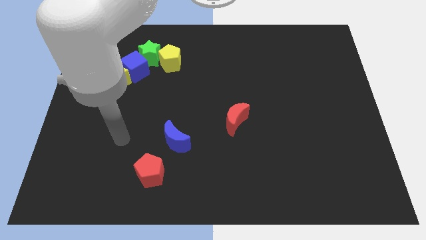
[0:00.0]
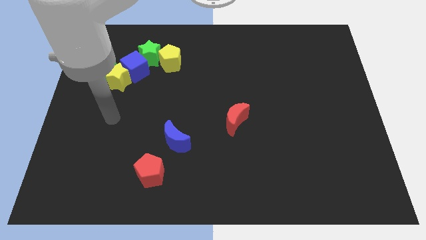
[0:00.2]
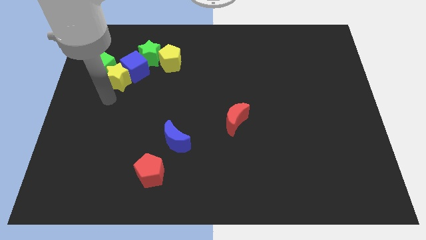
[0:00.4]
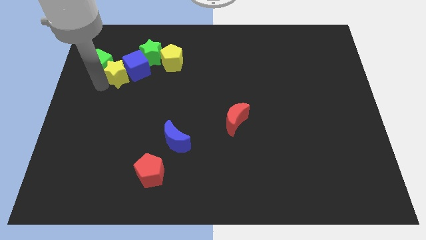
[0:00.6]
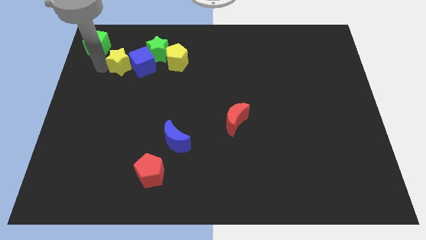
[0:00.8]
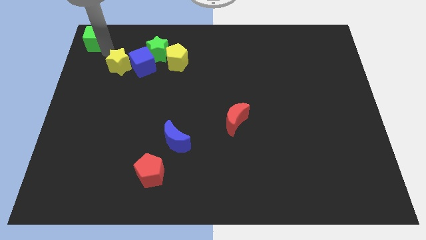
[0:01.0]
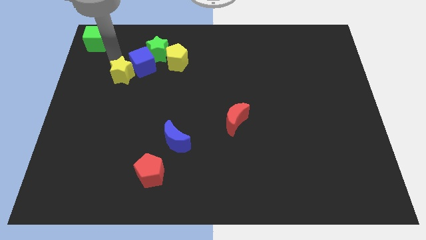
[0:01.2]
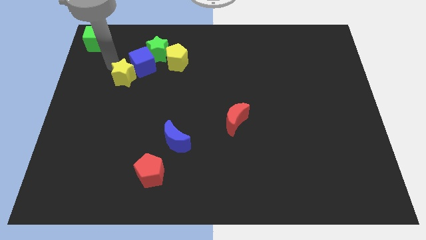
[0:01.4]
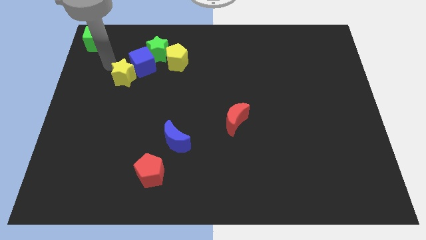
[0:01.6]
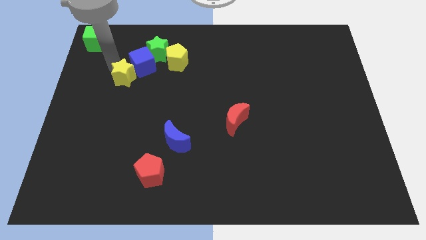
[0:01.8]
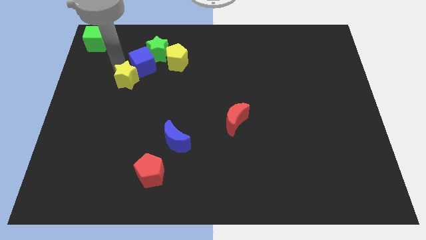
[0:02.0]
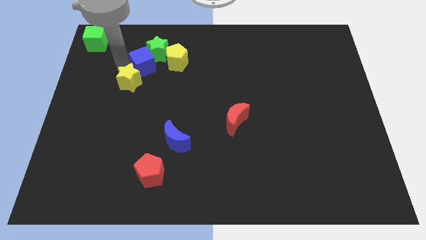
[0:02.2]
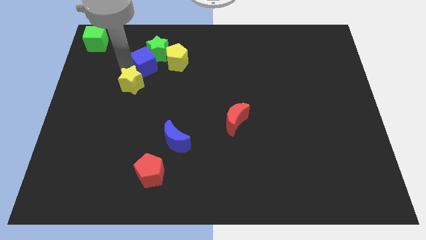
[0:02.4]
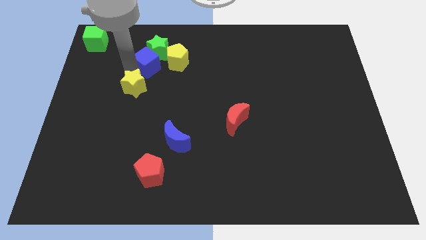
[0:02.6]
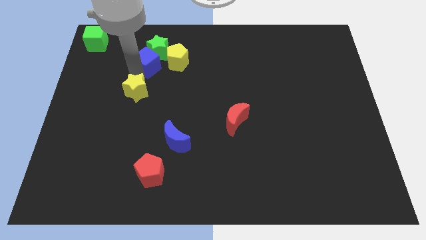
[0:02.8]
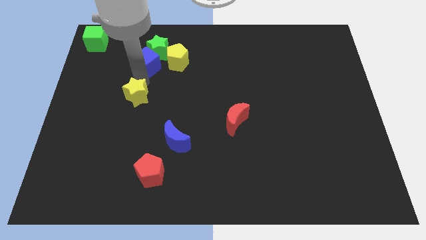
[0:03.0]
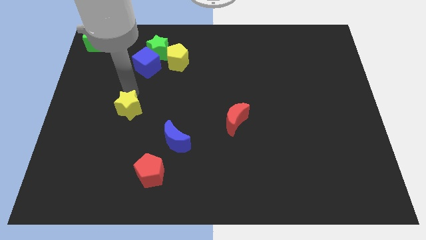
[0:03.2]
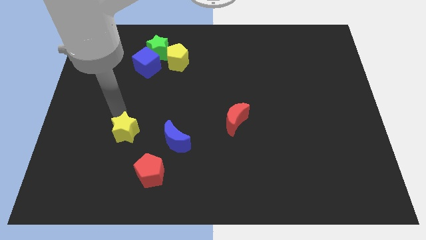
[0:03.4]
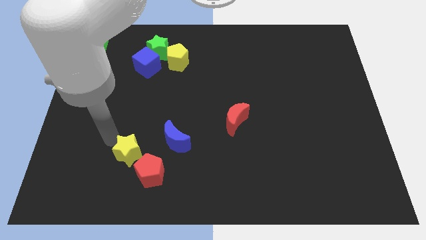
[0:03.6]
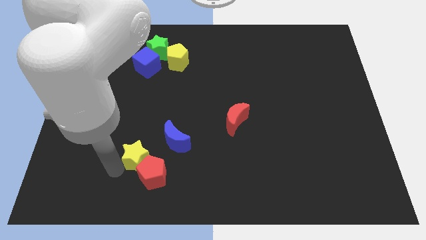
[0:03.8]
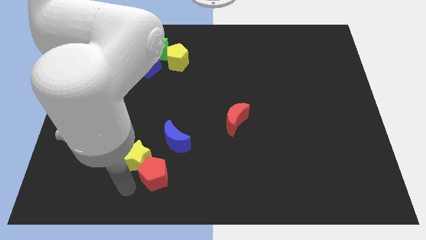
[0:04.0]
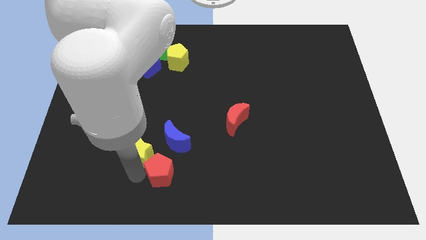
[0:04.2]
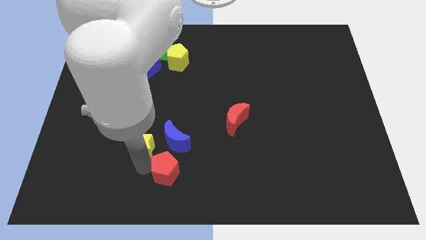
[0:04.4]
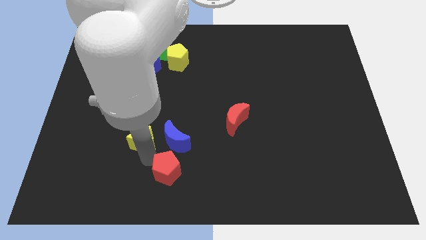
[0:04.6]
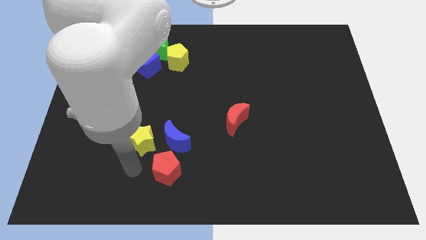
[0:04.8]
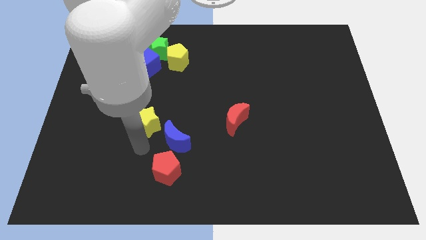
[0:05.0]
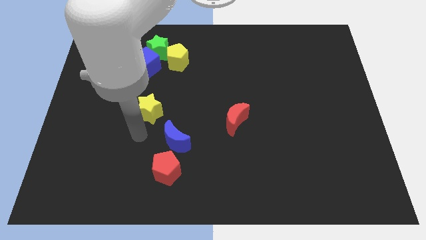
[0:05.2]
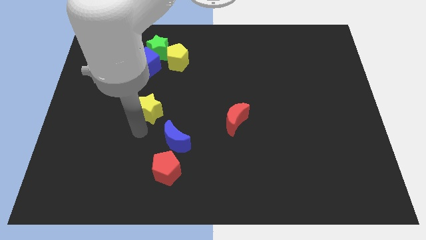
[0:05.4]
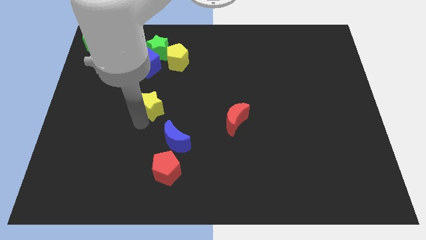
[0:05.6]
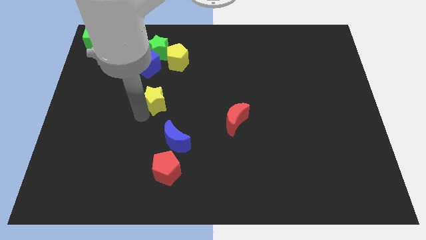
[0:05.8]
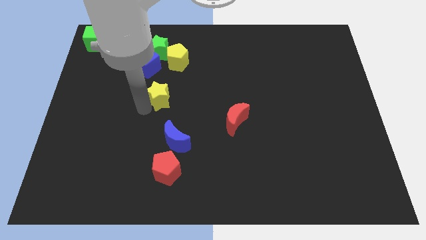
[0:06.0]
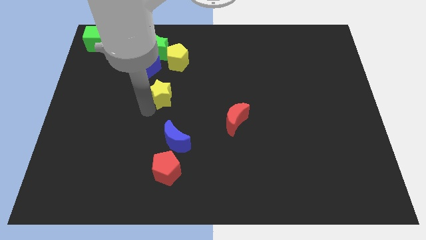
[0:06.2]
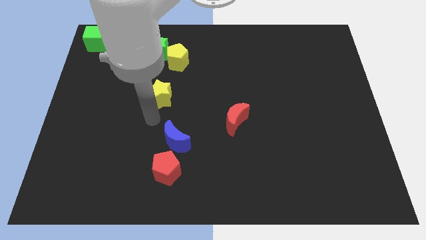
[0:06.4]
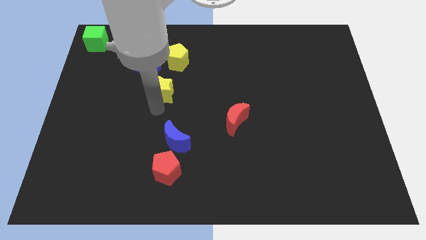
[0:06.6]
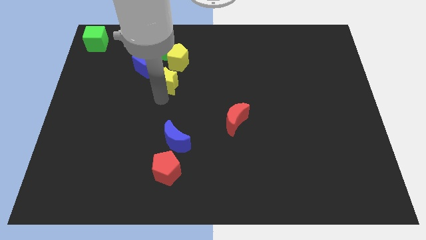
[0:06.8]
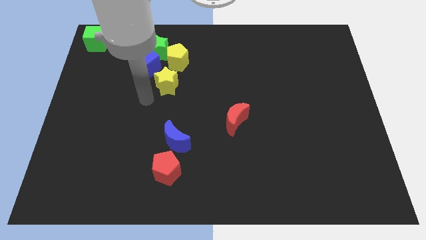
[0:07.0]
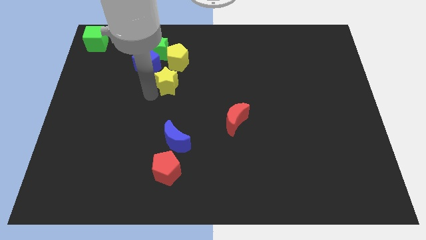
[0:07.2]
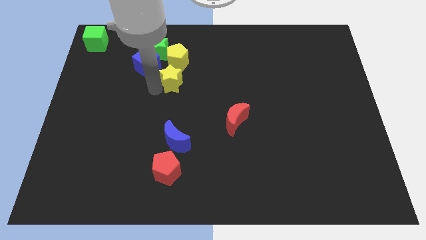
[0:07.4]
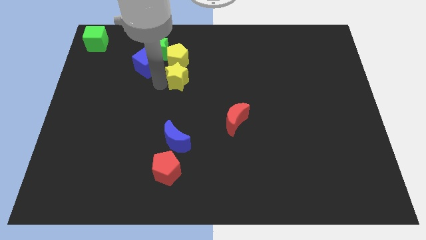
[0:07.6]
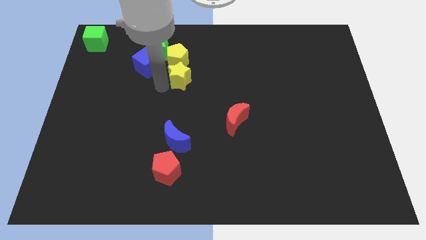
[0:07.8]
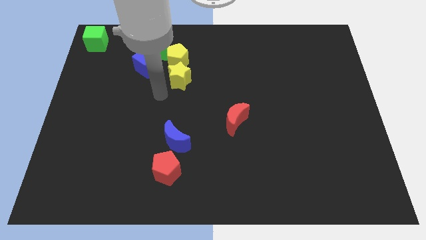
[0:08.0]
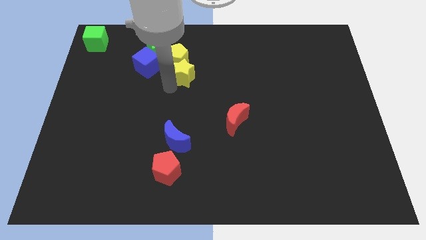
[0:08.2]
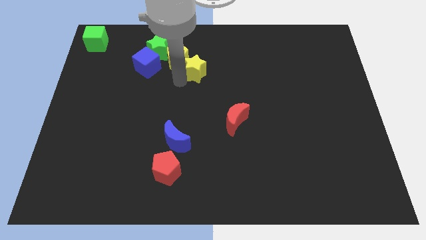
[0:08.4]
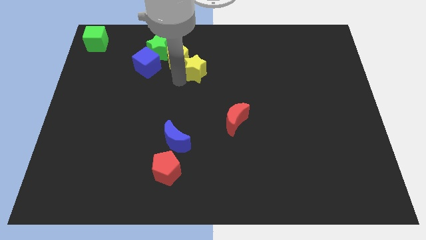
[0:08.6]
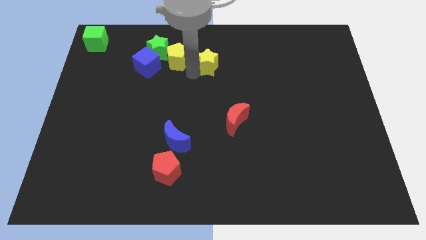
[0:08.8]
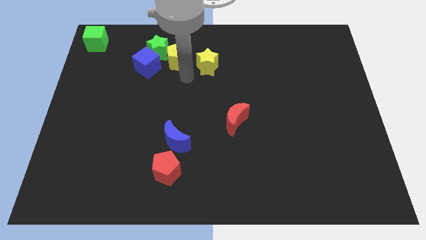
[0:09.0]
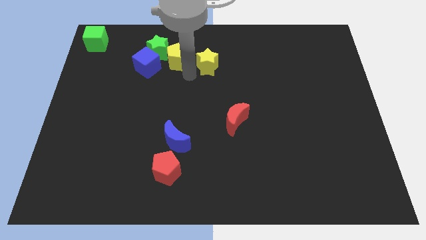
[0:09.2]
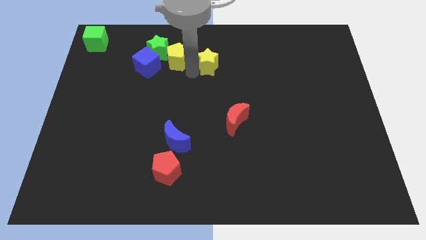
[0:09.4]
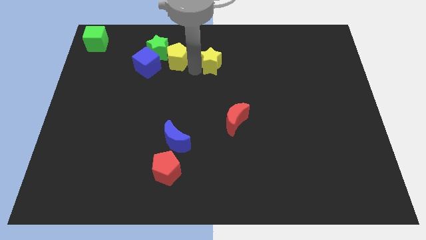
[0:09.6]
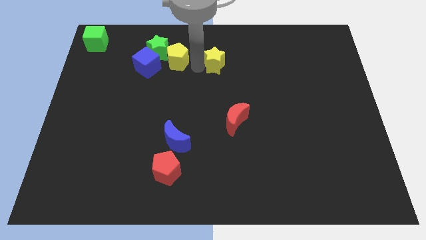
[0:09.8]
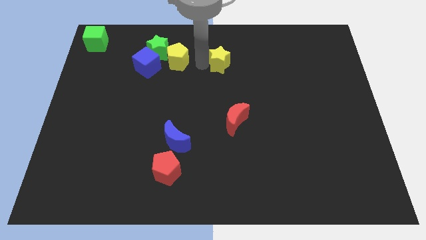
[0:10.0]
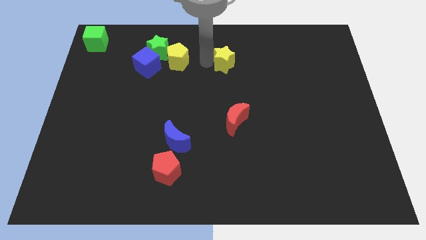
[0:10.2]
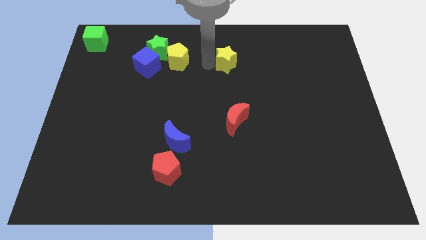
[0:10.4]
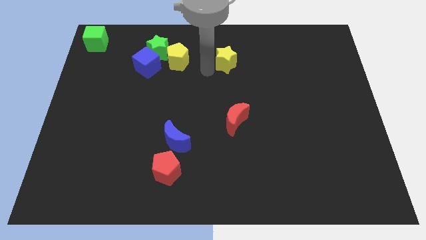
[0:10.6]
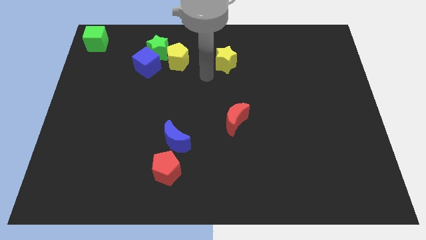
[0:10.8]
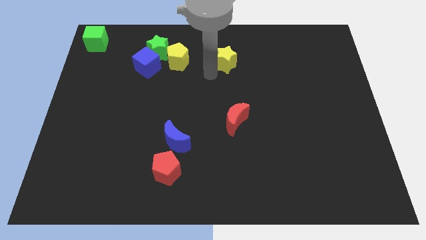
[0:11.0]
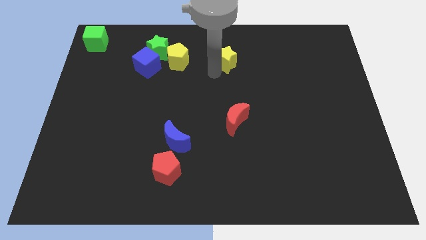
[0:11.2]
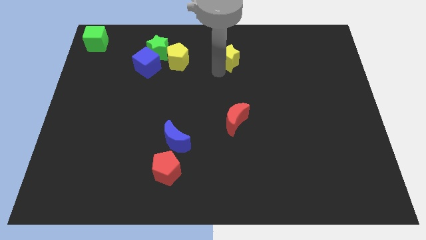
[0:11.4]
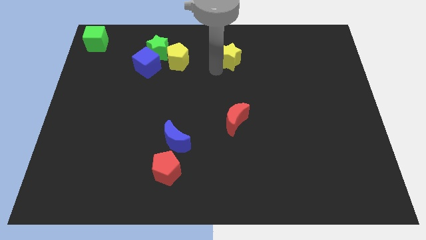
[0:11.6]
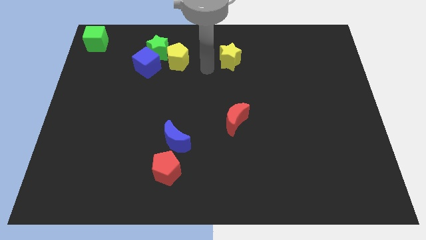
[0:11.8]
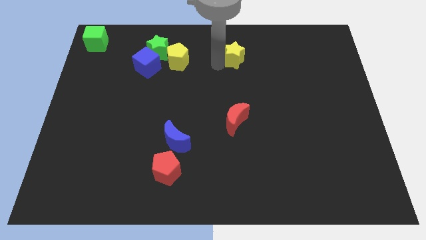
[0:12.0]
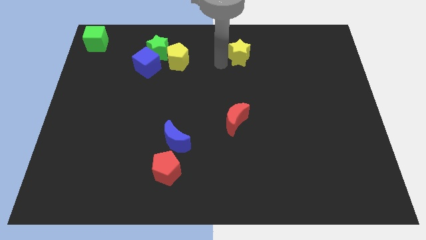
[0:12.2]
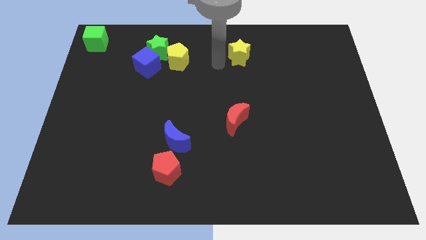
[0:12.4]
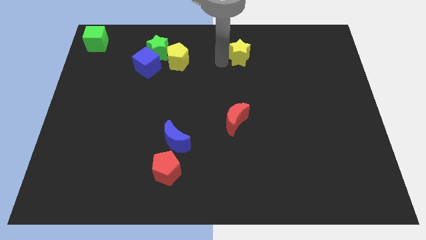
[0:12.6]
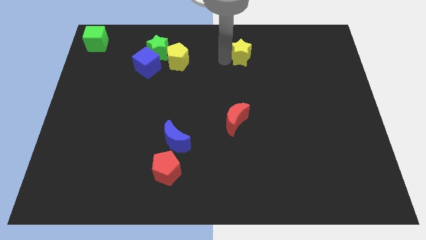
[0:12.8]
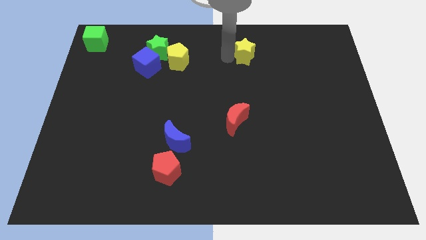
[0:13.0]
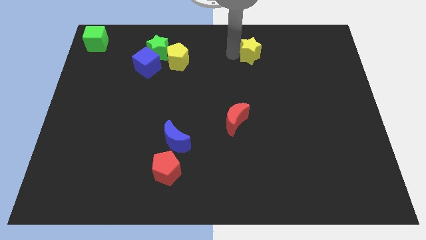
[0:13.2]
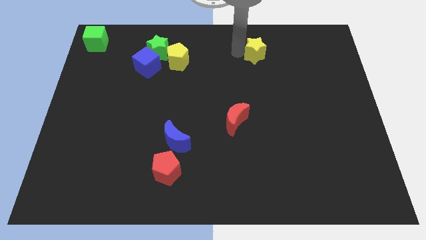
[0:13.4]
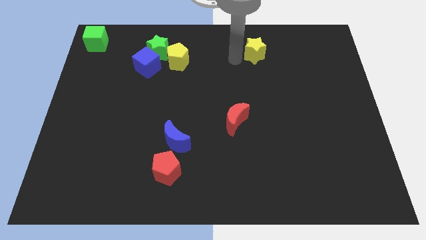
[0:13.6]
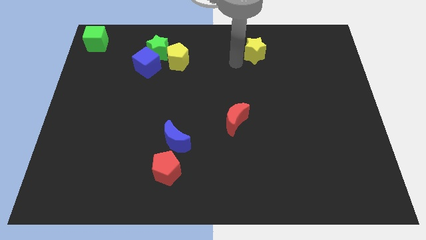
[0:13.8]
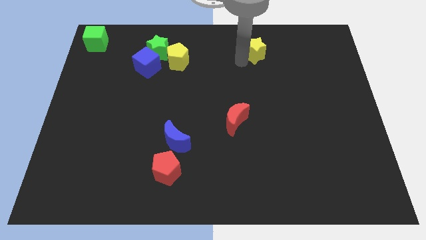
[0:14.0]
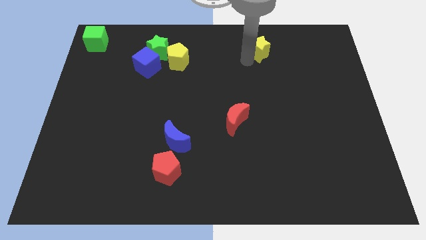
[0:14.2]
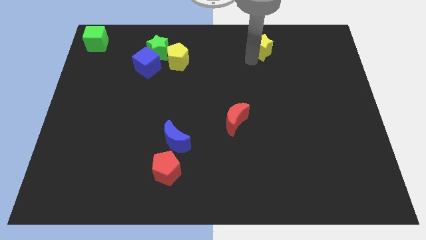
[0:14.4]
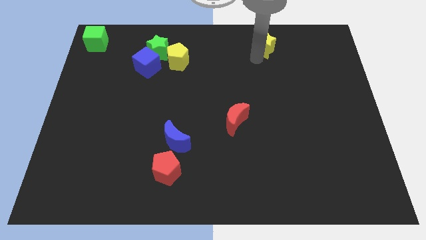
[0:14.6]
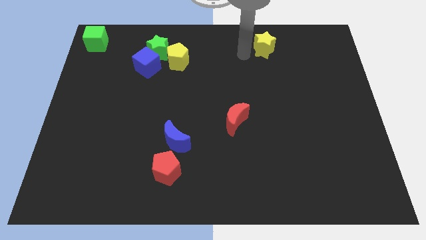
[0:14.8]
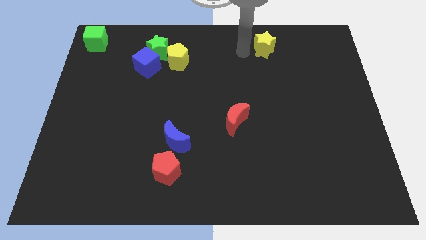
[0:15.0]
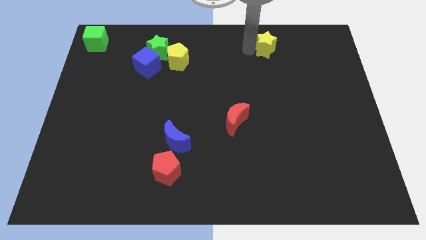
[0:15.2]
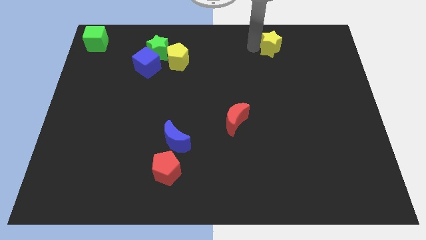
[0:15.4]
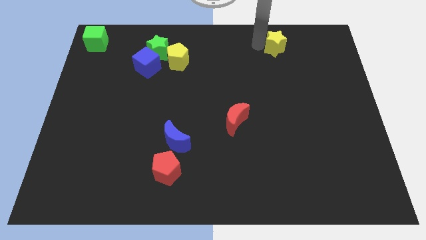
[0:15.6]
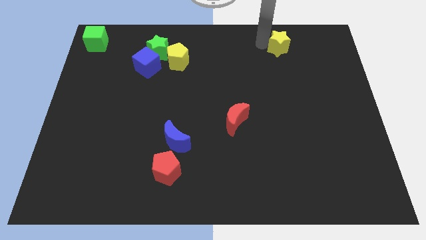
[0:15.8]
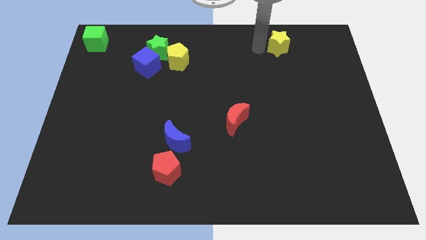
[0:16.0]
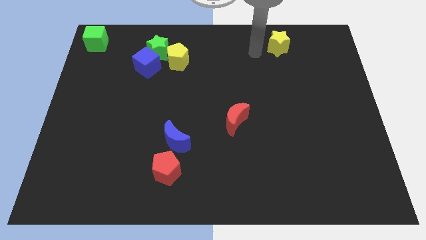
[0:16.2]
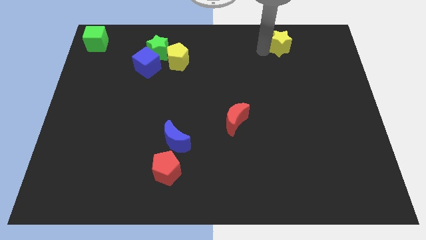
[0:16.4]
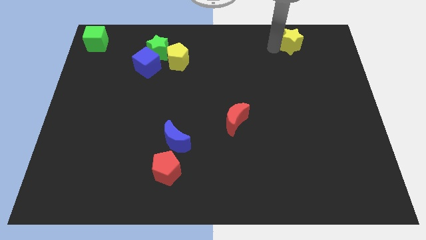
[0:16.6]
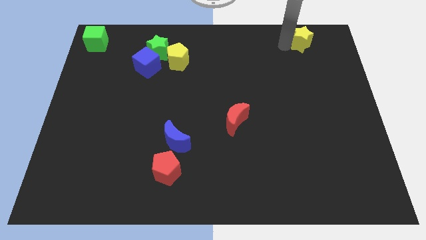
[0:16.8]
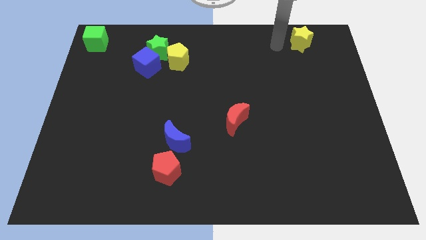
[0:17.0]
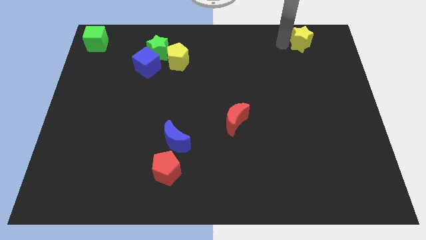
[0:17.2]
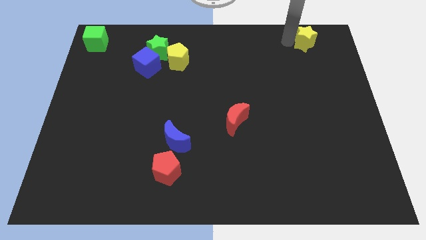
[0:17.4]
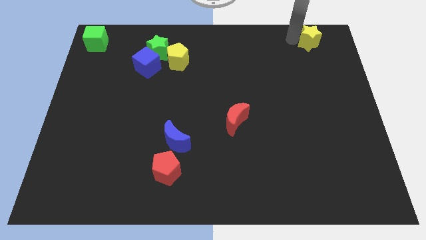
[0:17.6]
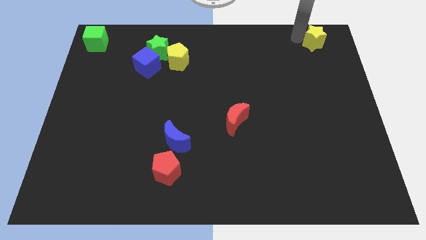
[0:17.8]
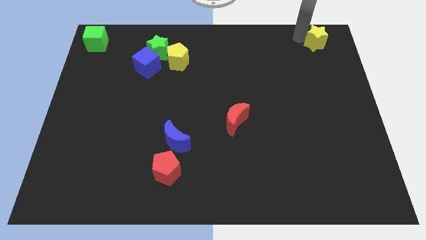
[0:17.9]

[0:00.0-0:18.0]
push the yellow star to the top right of the board
